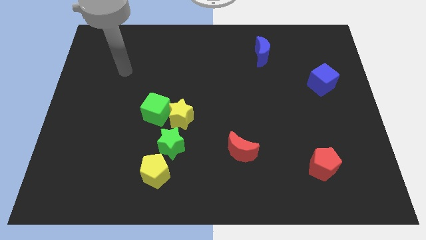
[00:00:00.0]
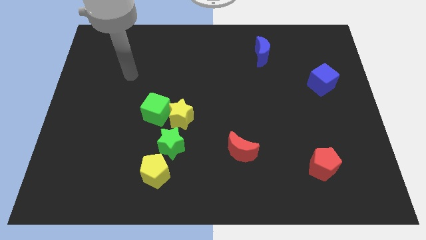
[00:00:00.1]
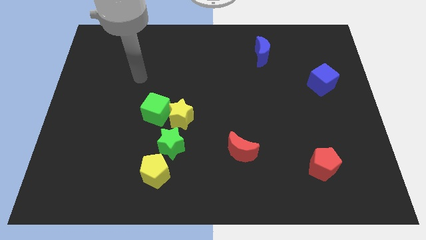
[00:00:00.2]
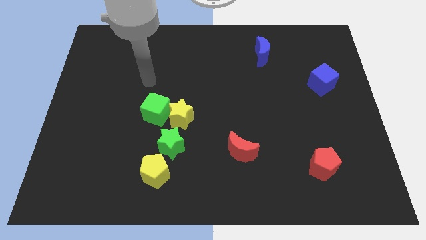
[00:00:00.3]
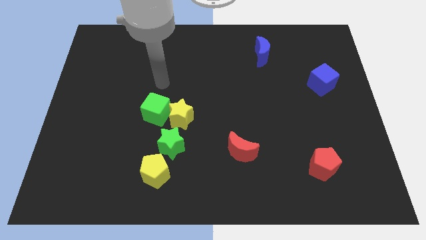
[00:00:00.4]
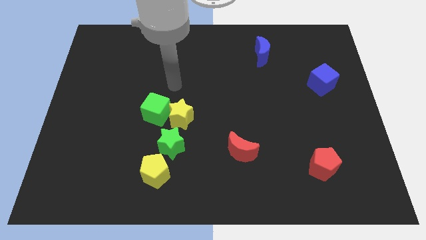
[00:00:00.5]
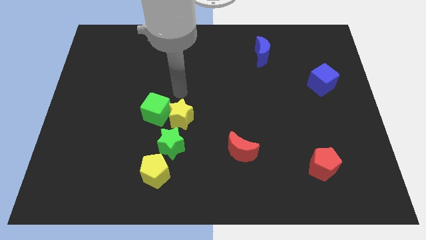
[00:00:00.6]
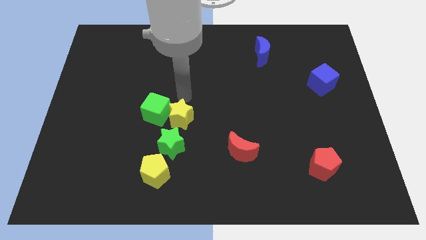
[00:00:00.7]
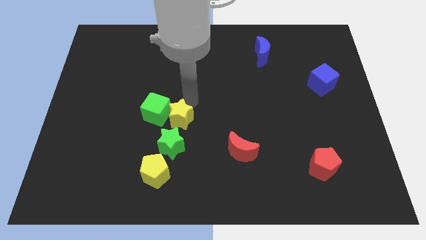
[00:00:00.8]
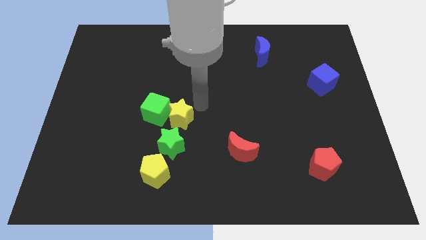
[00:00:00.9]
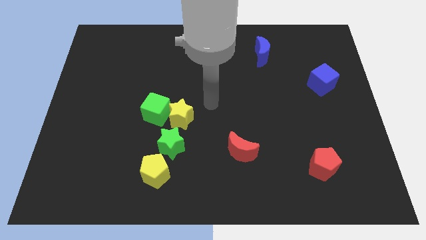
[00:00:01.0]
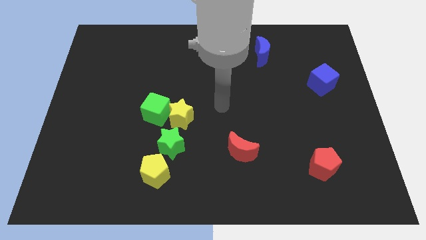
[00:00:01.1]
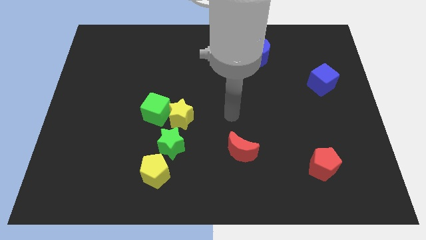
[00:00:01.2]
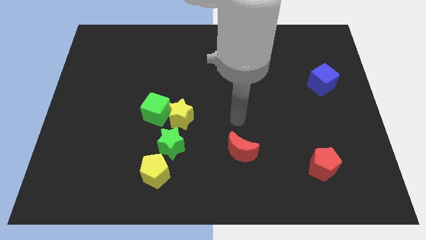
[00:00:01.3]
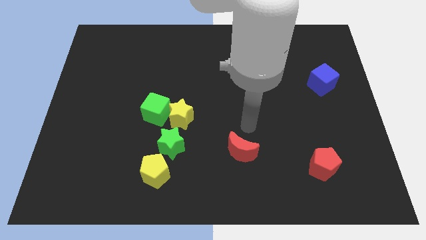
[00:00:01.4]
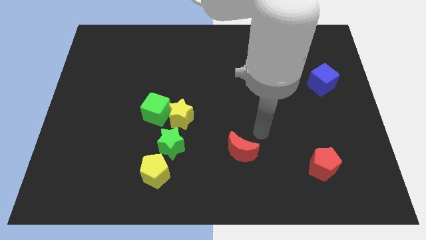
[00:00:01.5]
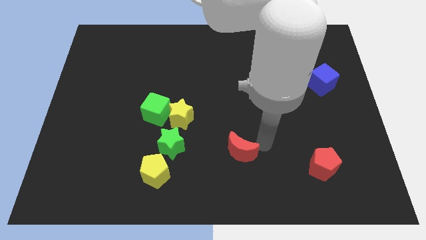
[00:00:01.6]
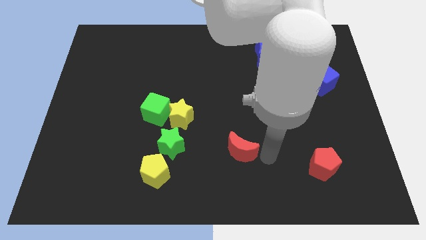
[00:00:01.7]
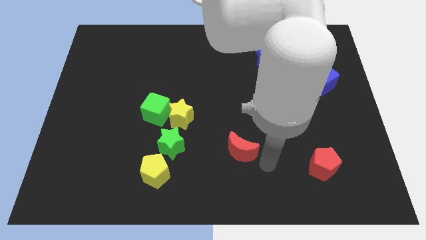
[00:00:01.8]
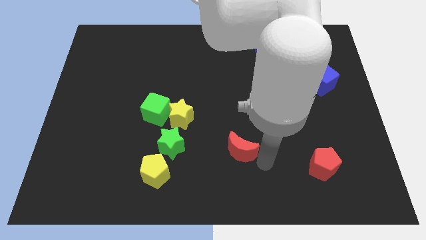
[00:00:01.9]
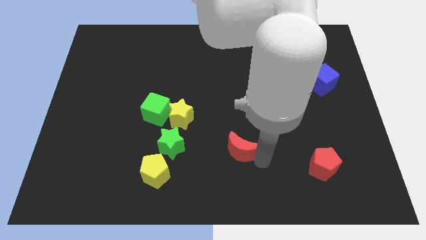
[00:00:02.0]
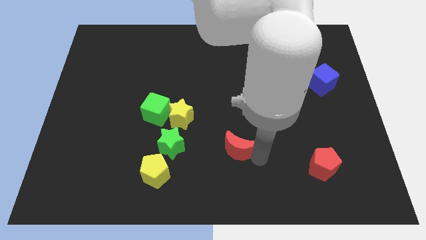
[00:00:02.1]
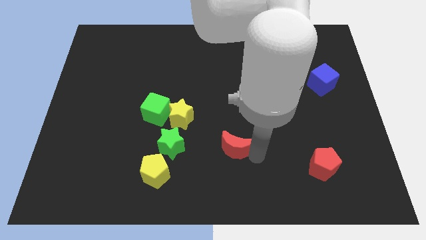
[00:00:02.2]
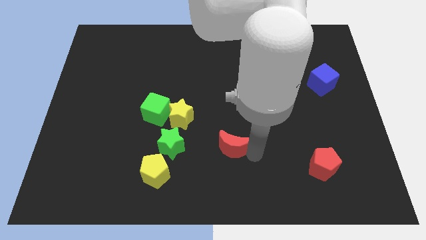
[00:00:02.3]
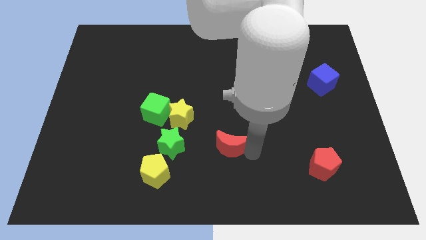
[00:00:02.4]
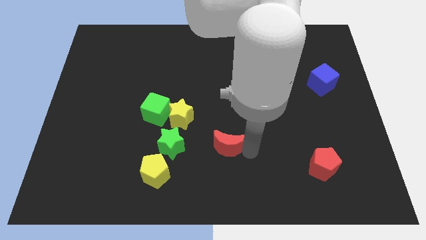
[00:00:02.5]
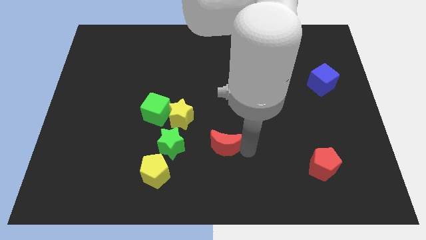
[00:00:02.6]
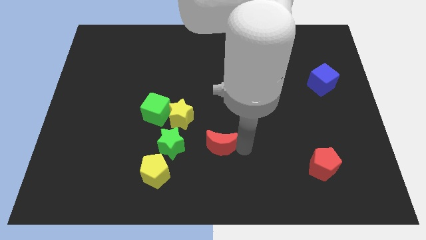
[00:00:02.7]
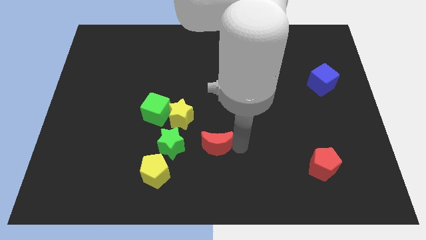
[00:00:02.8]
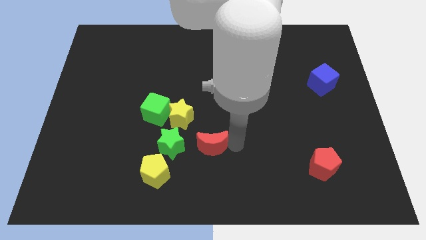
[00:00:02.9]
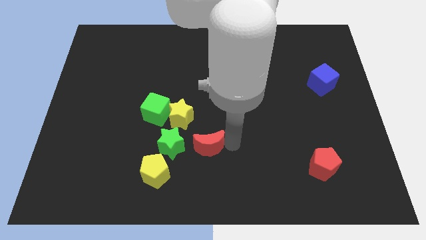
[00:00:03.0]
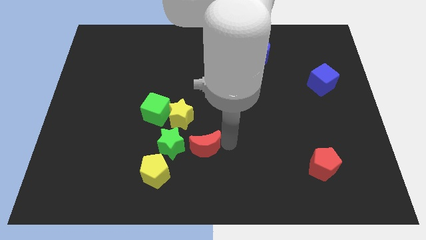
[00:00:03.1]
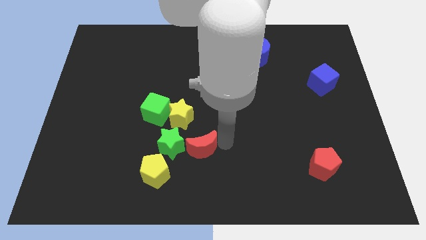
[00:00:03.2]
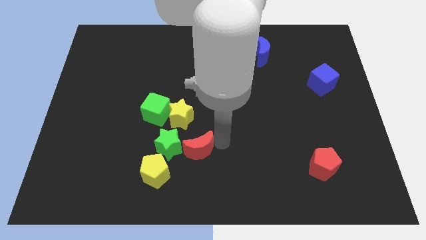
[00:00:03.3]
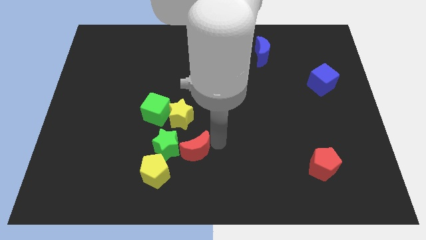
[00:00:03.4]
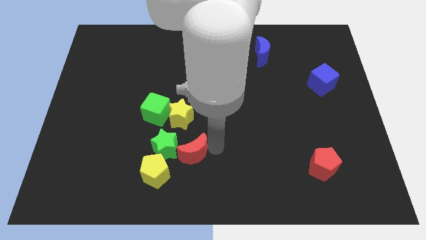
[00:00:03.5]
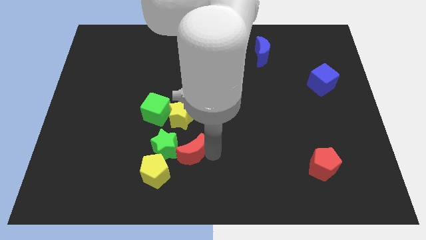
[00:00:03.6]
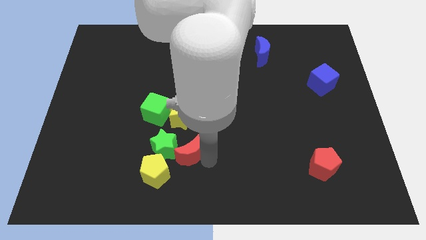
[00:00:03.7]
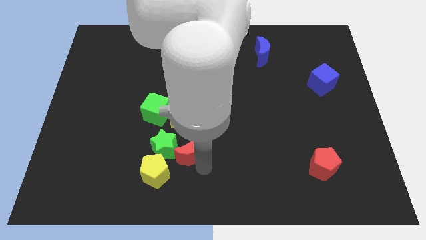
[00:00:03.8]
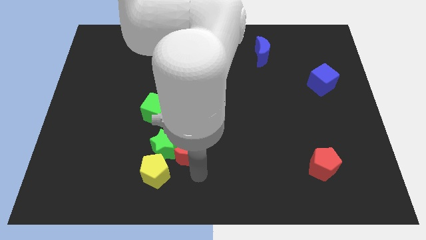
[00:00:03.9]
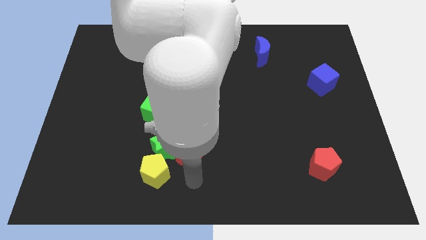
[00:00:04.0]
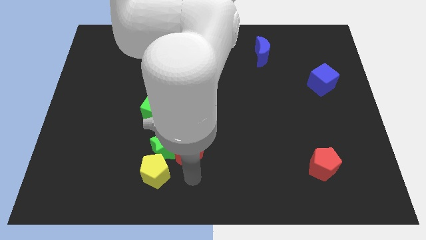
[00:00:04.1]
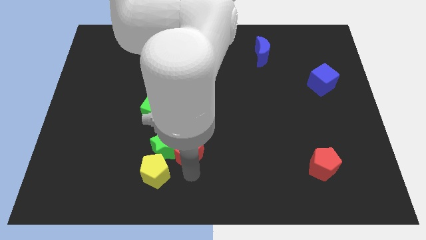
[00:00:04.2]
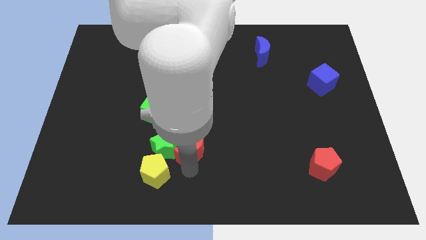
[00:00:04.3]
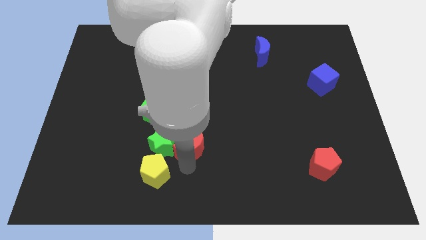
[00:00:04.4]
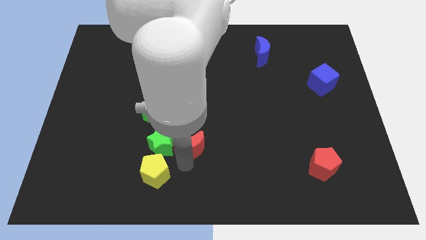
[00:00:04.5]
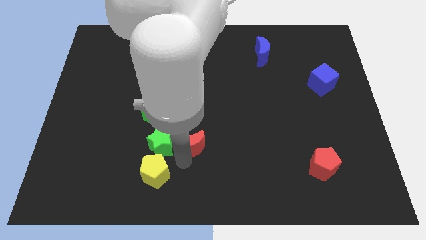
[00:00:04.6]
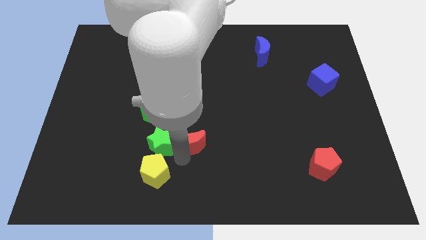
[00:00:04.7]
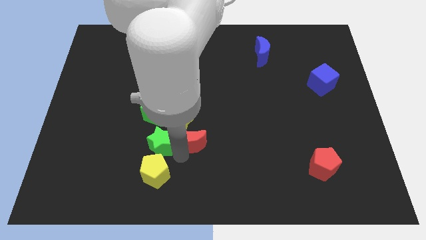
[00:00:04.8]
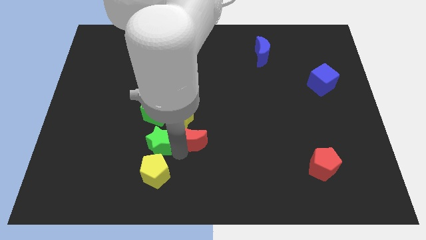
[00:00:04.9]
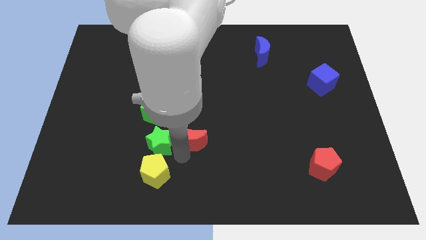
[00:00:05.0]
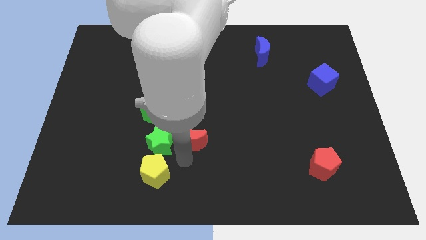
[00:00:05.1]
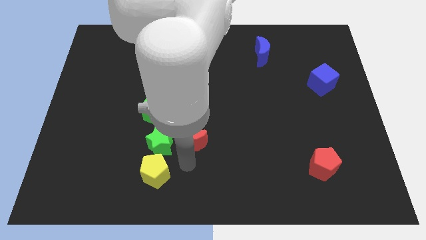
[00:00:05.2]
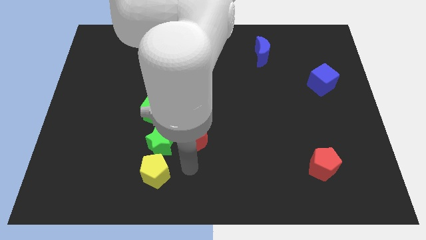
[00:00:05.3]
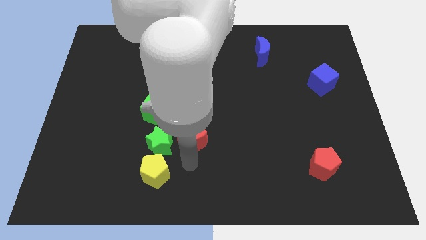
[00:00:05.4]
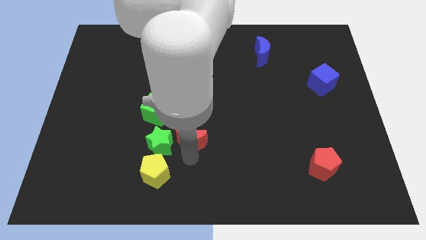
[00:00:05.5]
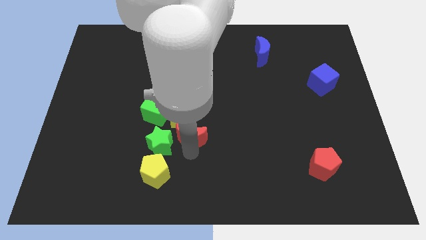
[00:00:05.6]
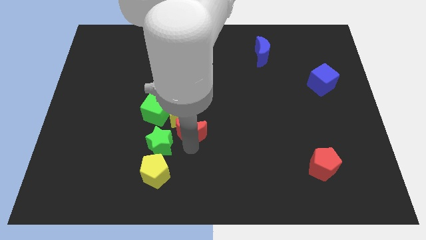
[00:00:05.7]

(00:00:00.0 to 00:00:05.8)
slide the red moon to the yellow star

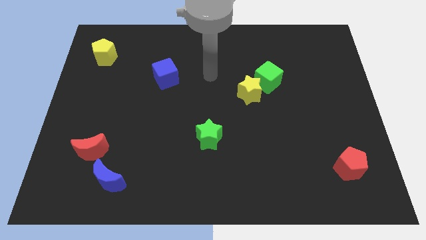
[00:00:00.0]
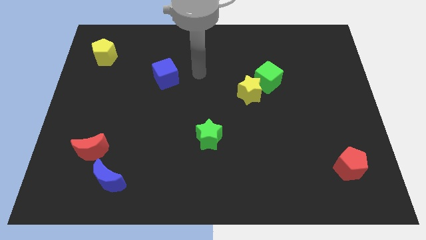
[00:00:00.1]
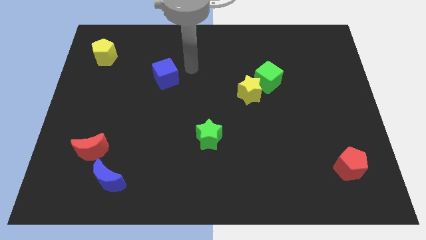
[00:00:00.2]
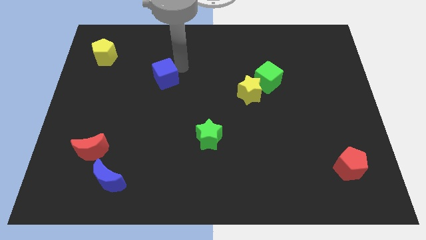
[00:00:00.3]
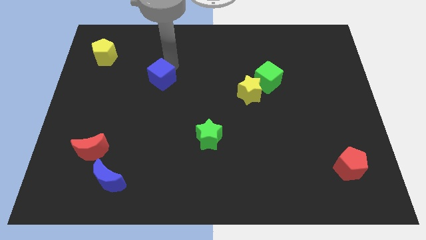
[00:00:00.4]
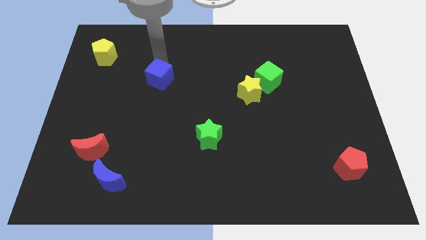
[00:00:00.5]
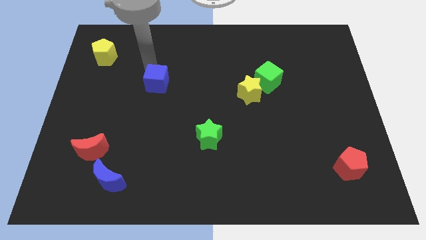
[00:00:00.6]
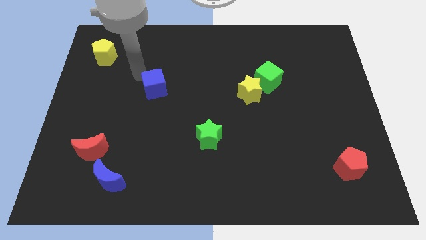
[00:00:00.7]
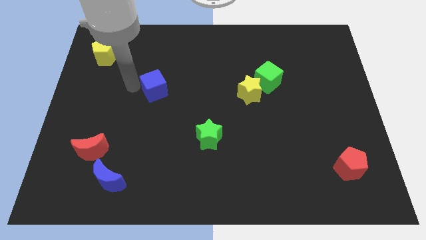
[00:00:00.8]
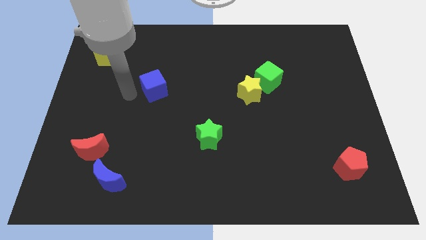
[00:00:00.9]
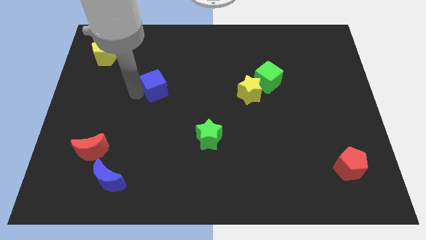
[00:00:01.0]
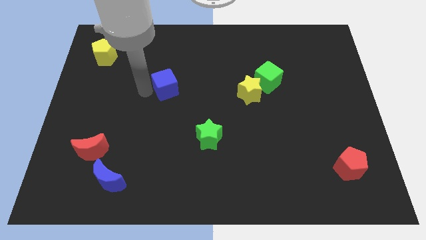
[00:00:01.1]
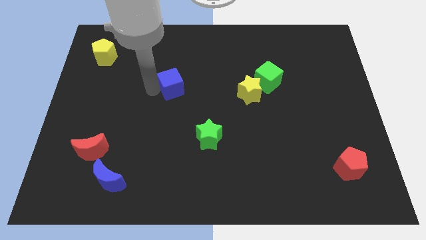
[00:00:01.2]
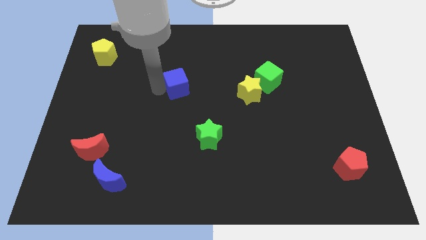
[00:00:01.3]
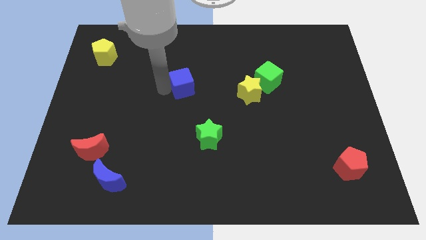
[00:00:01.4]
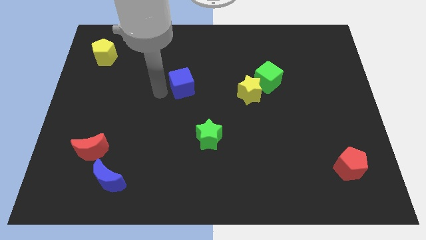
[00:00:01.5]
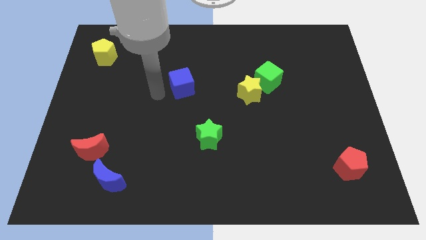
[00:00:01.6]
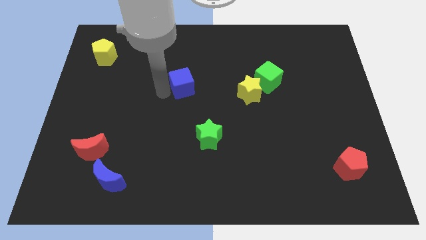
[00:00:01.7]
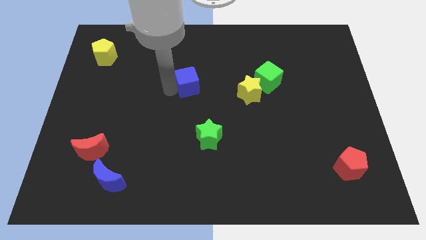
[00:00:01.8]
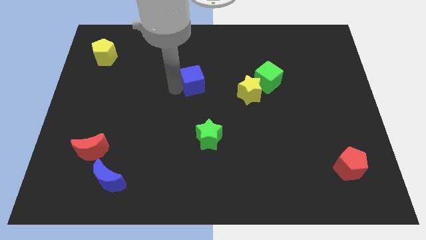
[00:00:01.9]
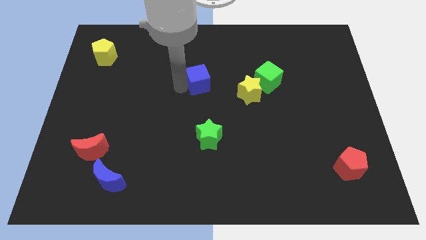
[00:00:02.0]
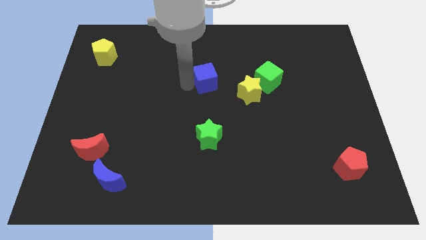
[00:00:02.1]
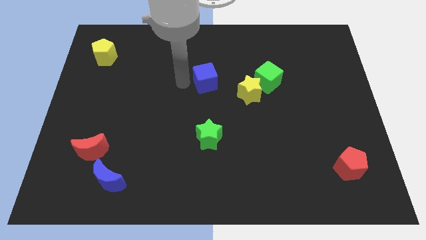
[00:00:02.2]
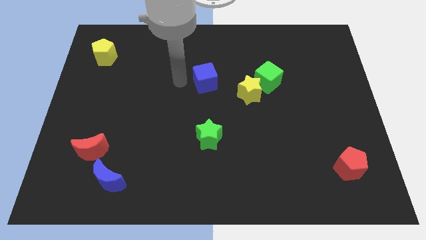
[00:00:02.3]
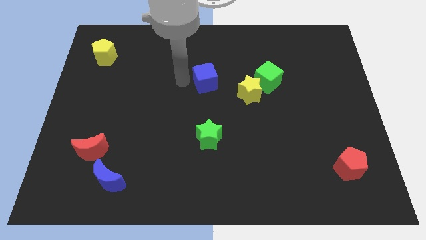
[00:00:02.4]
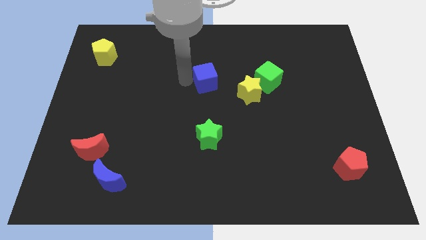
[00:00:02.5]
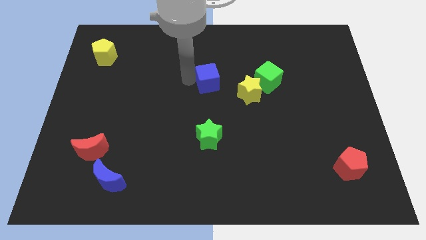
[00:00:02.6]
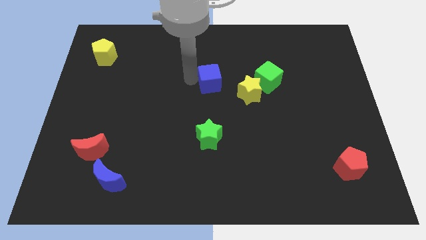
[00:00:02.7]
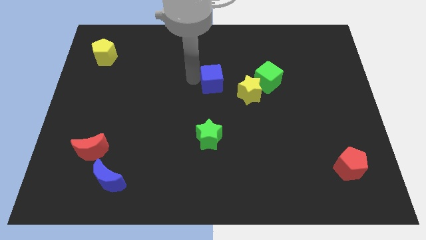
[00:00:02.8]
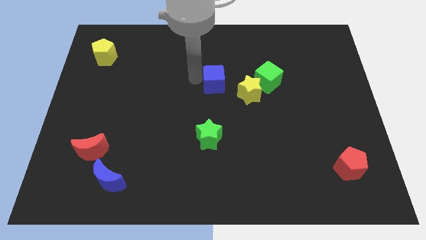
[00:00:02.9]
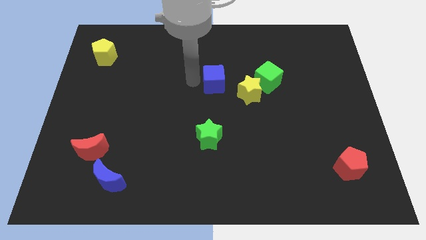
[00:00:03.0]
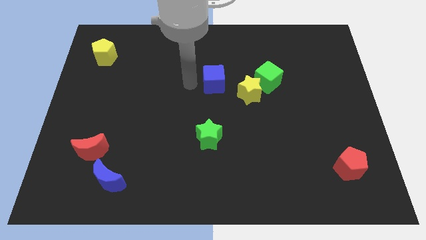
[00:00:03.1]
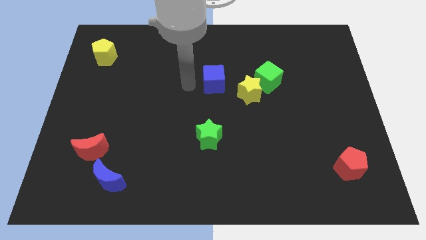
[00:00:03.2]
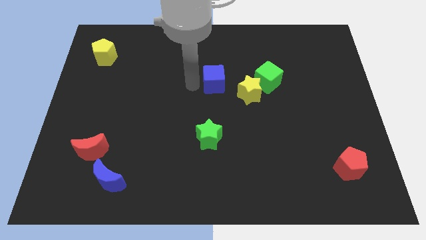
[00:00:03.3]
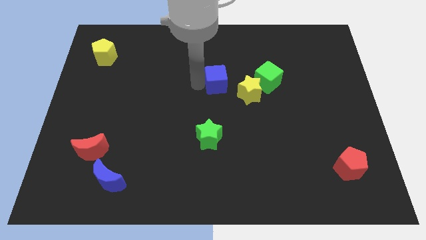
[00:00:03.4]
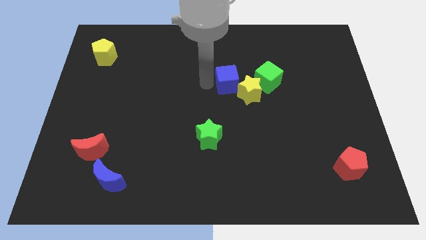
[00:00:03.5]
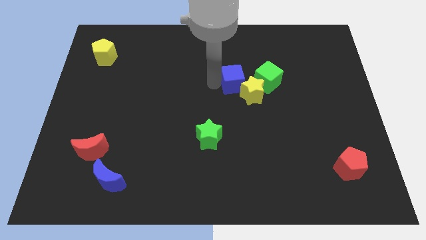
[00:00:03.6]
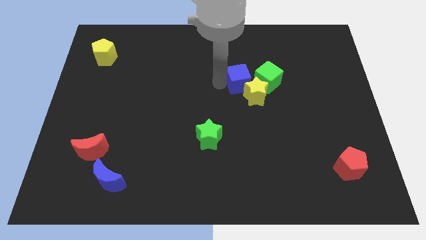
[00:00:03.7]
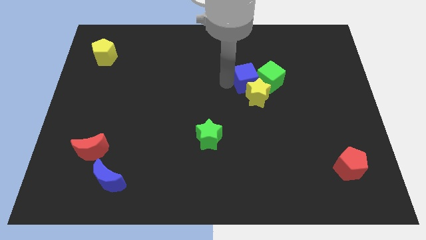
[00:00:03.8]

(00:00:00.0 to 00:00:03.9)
put the blue cube to the green cube
